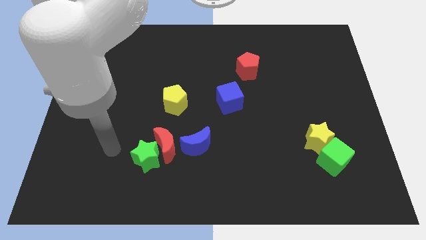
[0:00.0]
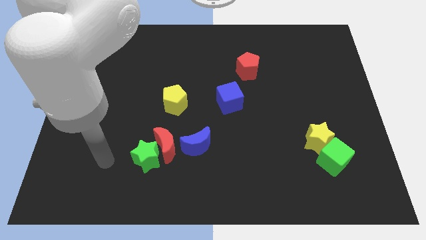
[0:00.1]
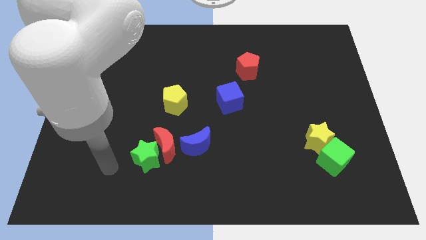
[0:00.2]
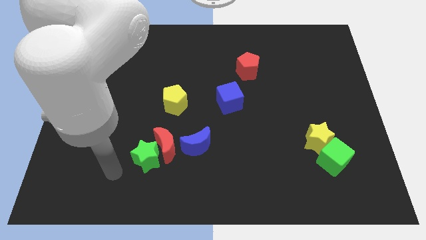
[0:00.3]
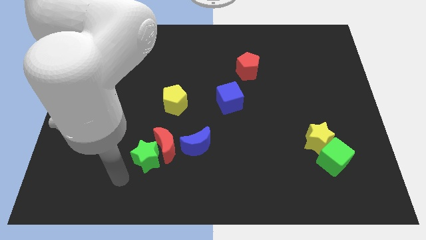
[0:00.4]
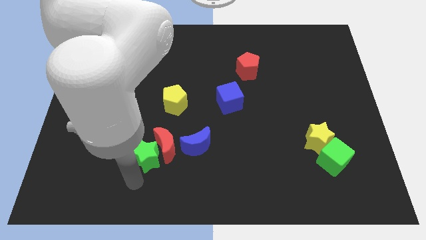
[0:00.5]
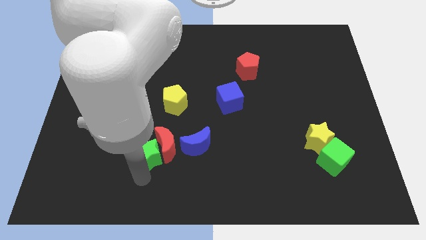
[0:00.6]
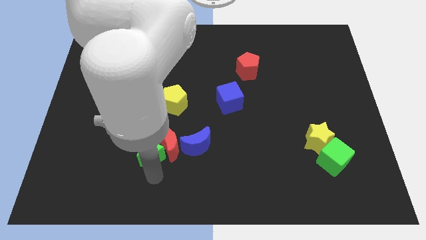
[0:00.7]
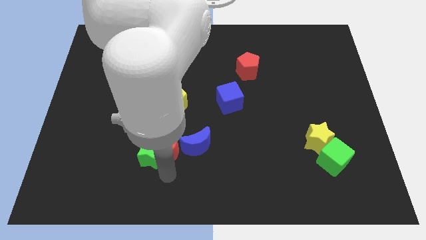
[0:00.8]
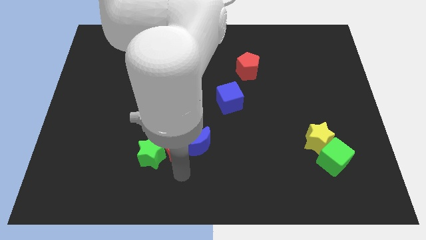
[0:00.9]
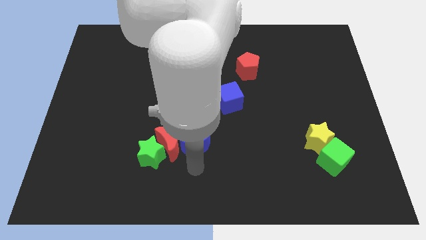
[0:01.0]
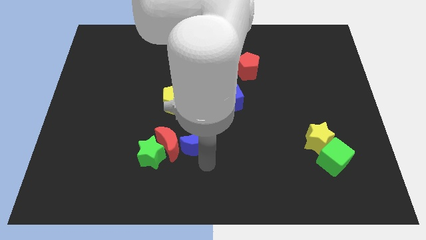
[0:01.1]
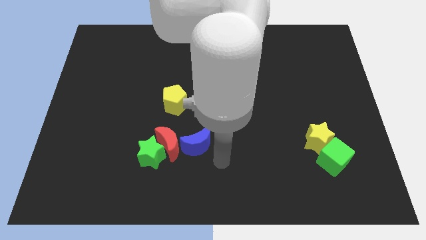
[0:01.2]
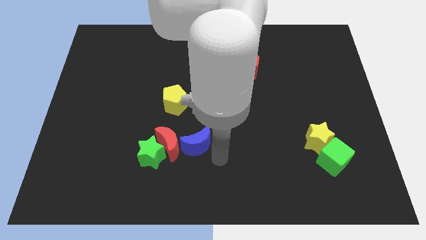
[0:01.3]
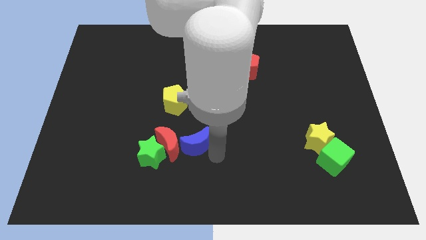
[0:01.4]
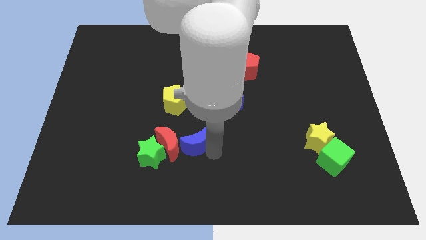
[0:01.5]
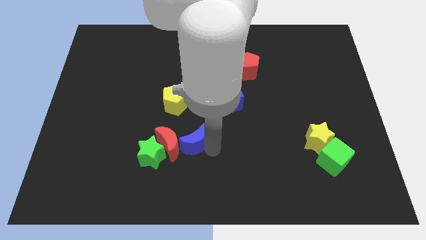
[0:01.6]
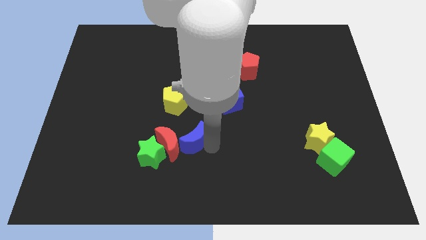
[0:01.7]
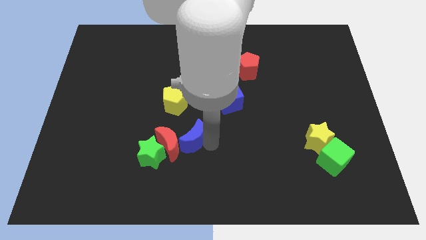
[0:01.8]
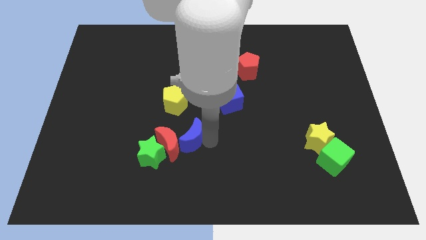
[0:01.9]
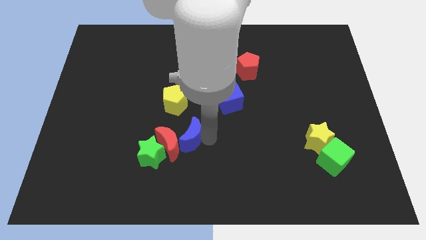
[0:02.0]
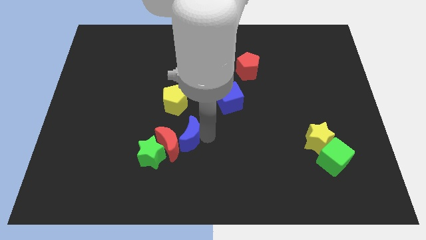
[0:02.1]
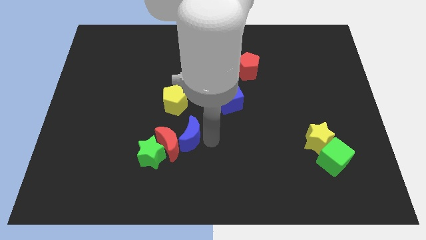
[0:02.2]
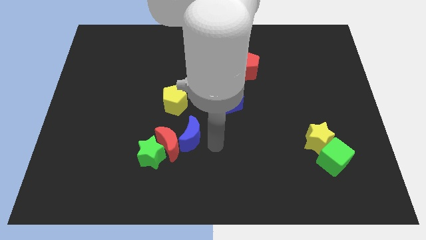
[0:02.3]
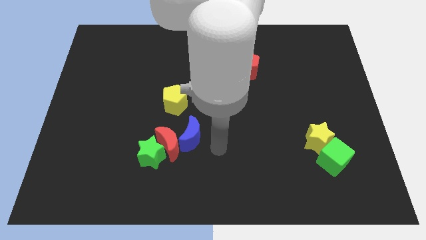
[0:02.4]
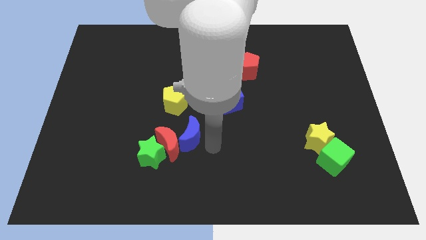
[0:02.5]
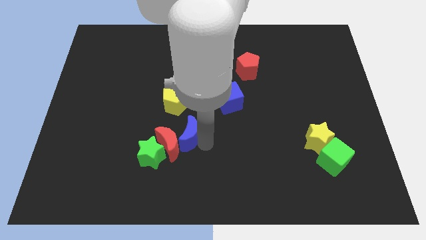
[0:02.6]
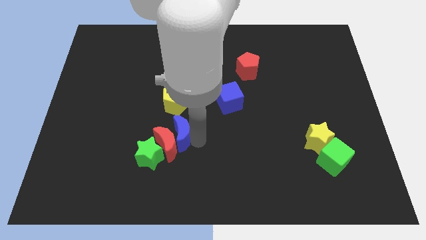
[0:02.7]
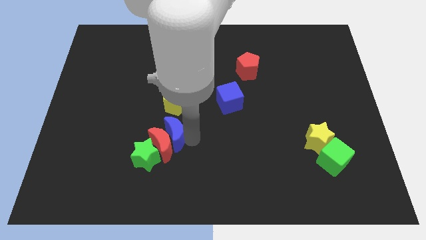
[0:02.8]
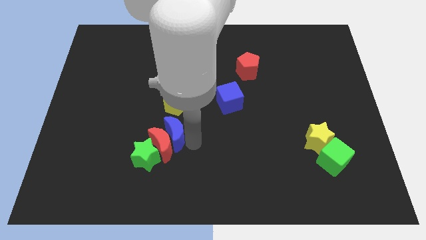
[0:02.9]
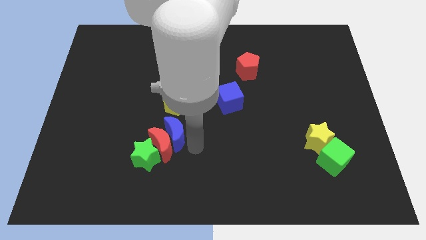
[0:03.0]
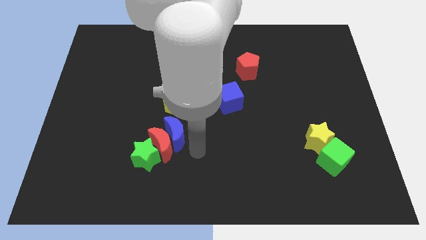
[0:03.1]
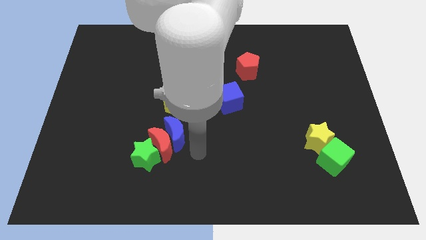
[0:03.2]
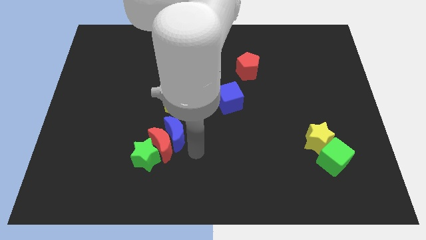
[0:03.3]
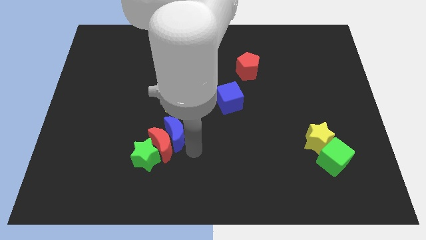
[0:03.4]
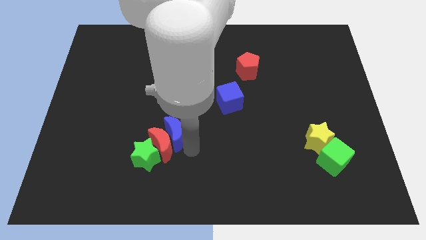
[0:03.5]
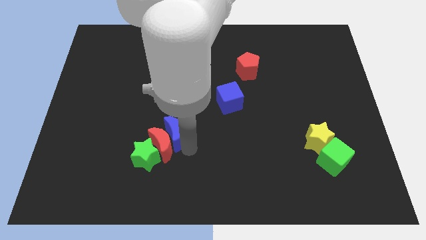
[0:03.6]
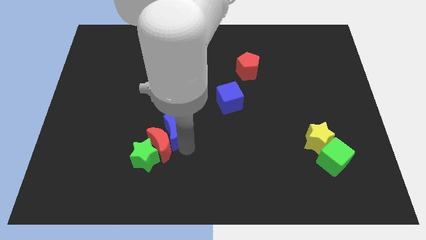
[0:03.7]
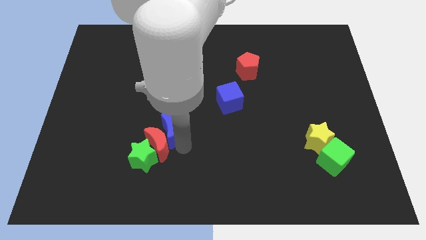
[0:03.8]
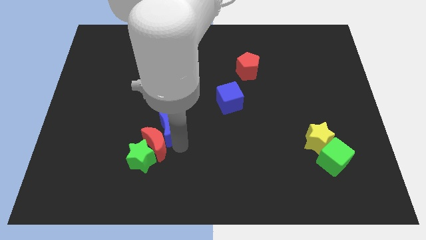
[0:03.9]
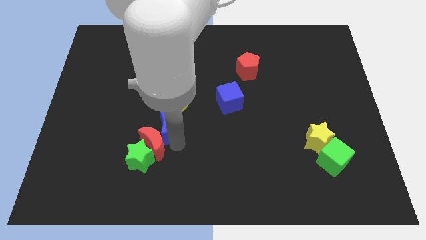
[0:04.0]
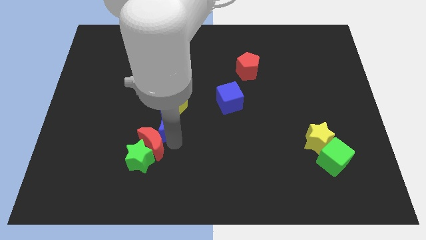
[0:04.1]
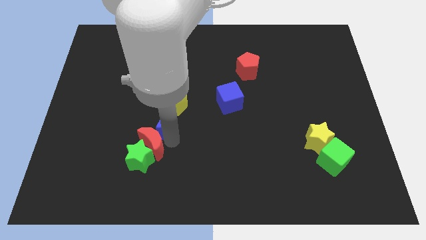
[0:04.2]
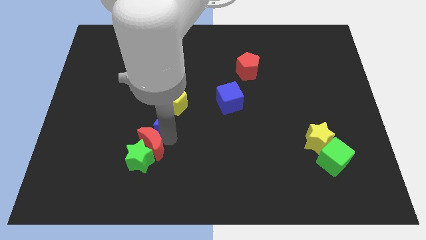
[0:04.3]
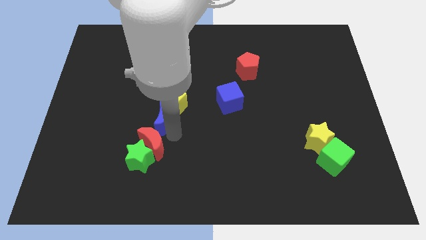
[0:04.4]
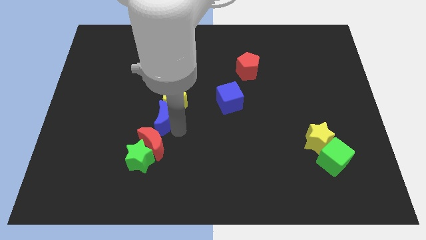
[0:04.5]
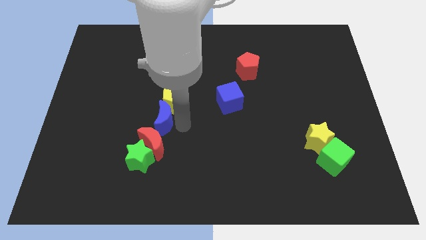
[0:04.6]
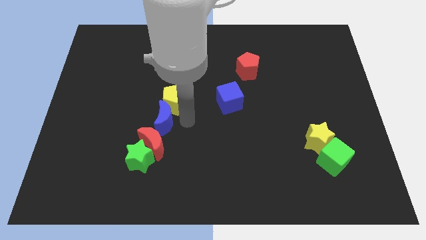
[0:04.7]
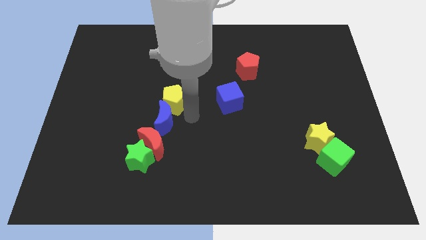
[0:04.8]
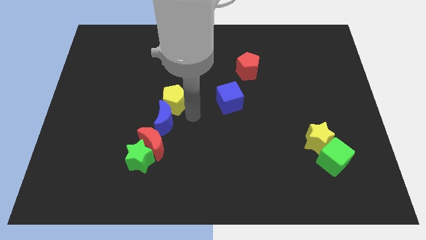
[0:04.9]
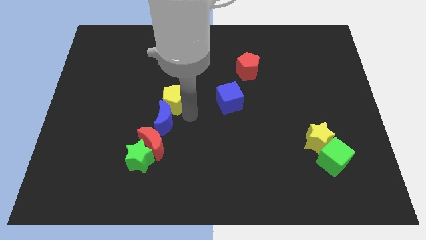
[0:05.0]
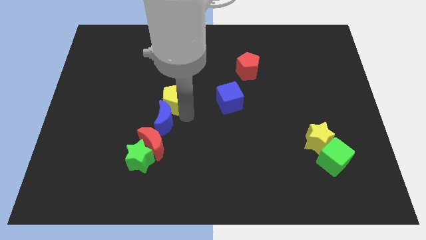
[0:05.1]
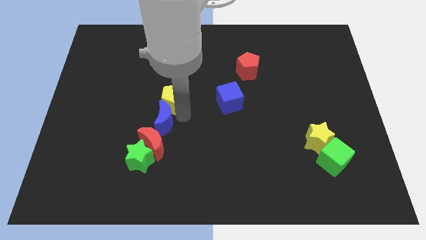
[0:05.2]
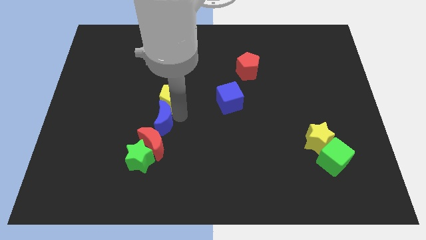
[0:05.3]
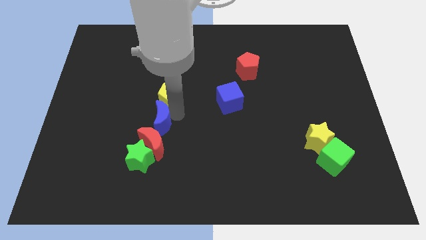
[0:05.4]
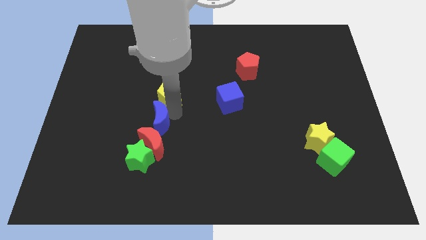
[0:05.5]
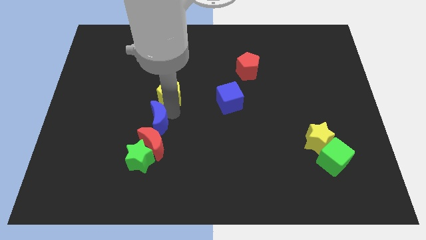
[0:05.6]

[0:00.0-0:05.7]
slightly slide the blue moon left

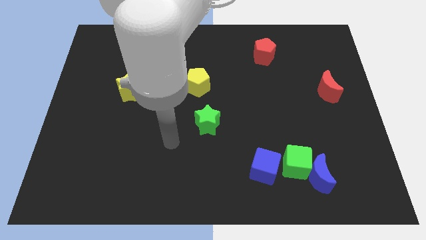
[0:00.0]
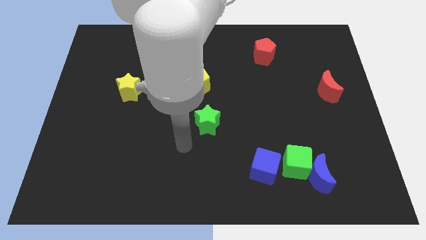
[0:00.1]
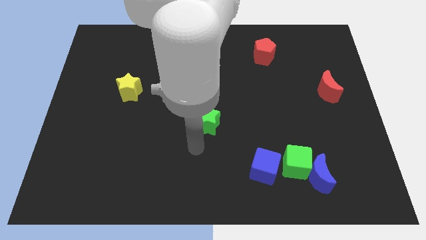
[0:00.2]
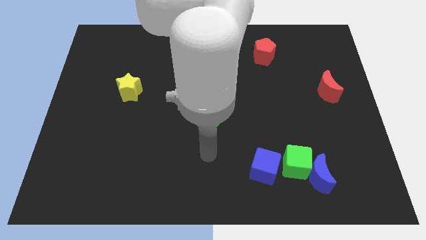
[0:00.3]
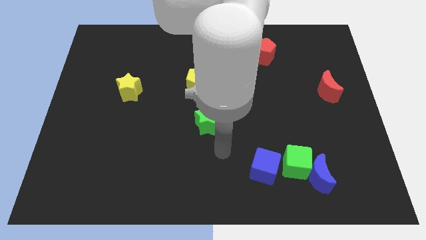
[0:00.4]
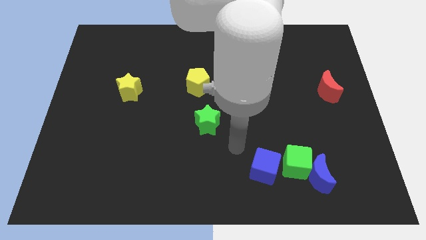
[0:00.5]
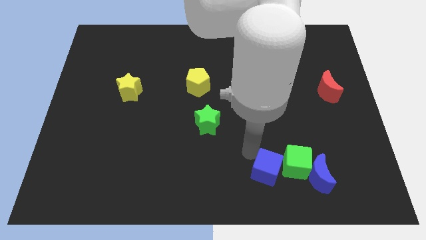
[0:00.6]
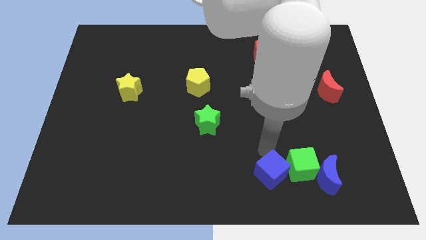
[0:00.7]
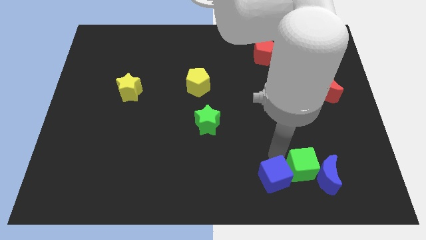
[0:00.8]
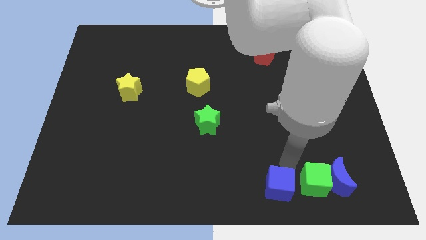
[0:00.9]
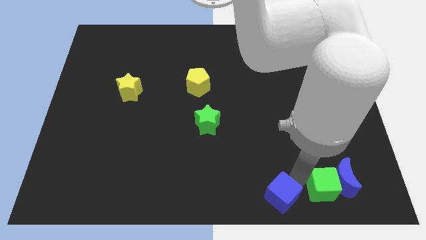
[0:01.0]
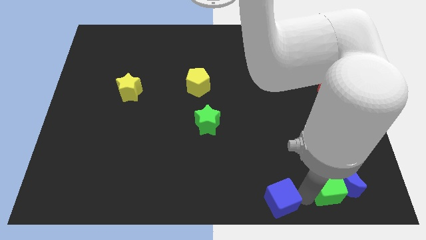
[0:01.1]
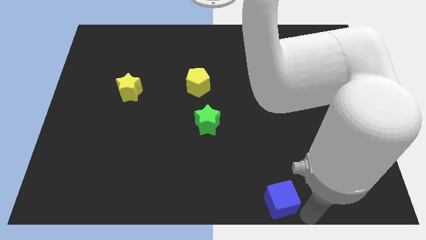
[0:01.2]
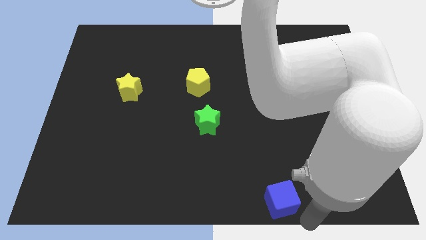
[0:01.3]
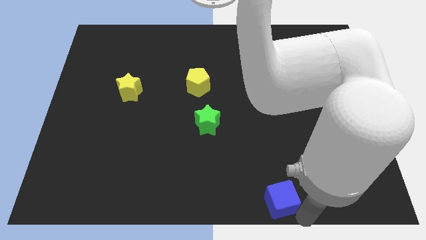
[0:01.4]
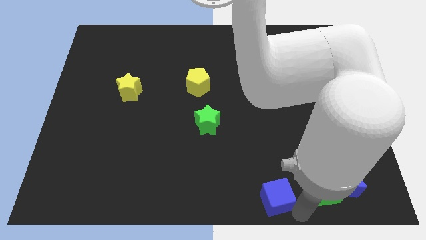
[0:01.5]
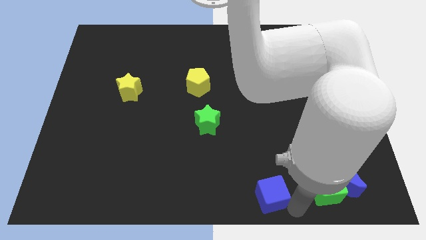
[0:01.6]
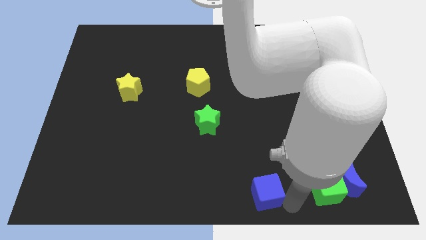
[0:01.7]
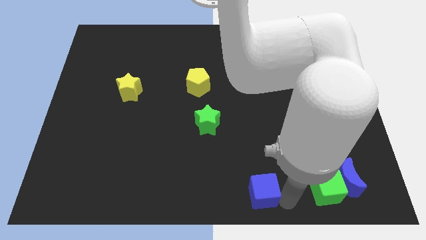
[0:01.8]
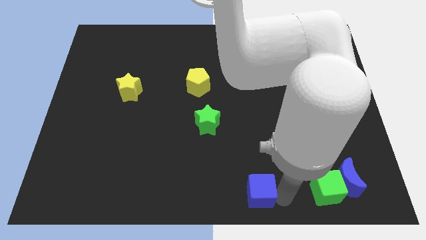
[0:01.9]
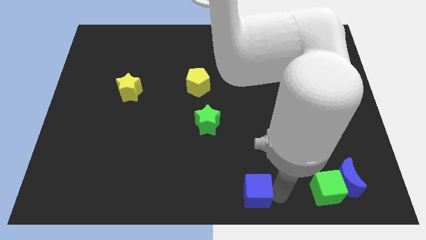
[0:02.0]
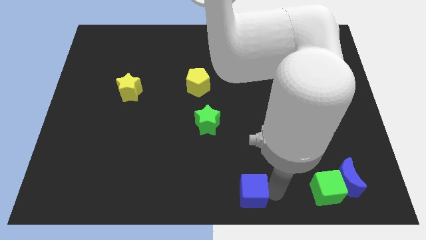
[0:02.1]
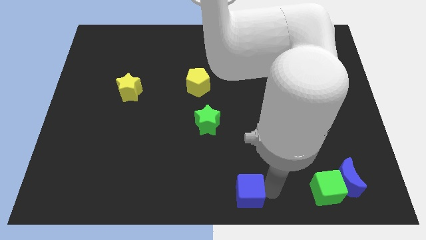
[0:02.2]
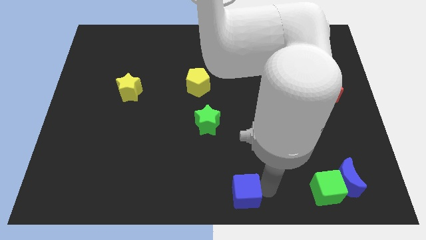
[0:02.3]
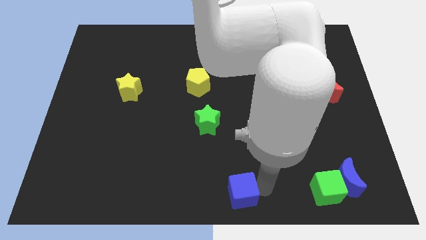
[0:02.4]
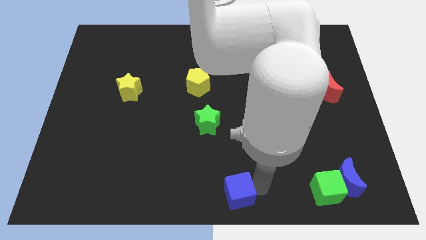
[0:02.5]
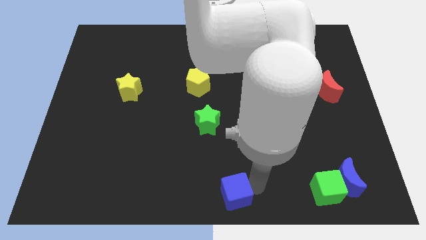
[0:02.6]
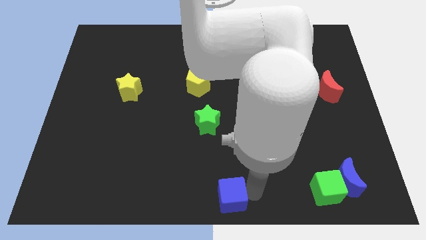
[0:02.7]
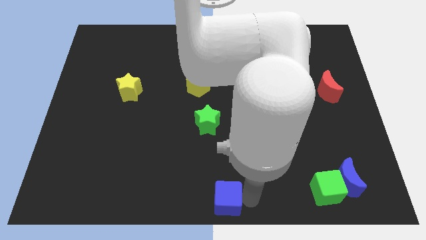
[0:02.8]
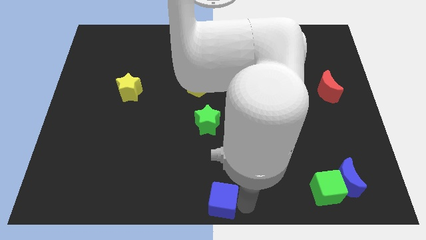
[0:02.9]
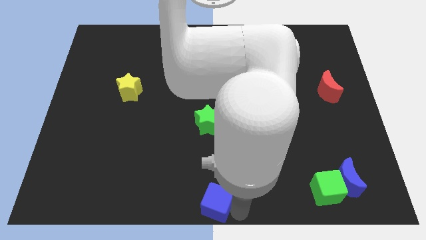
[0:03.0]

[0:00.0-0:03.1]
slide the blue cube left a bit
